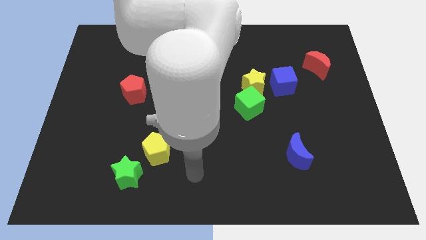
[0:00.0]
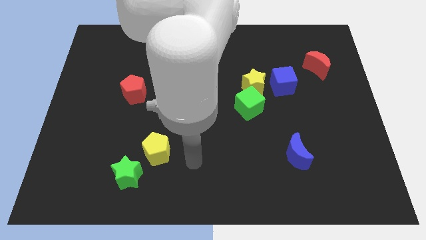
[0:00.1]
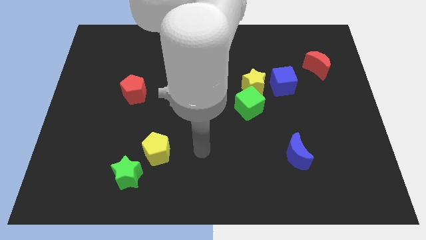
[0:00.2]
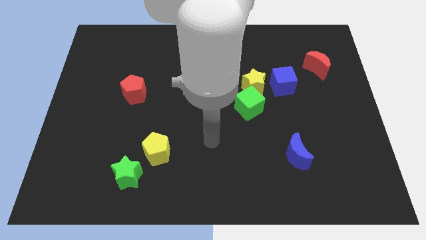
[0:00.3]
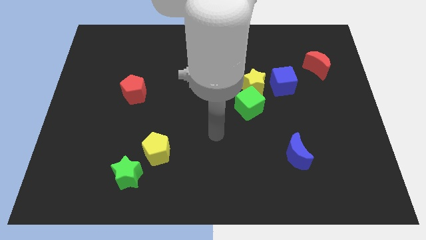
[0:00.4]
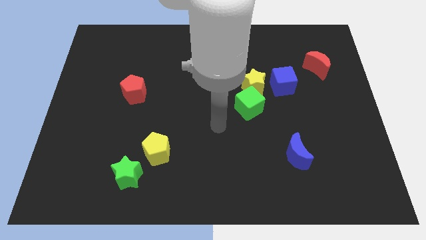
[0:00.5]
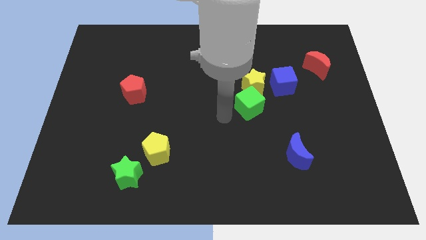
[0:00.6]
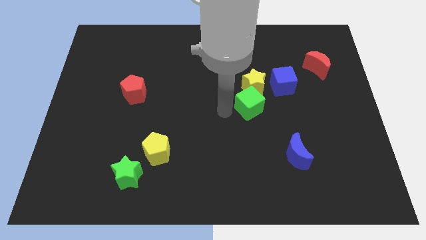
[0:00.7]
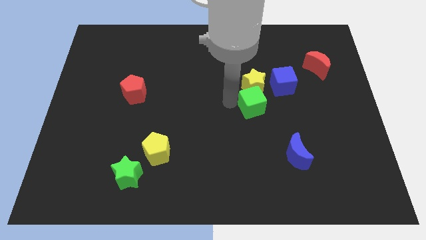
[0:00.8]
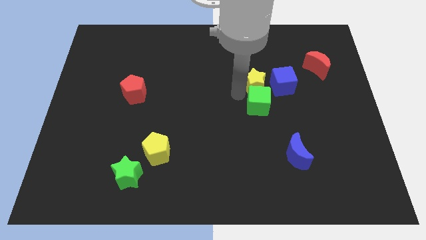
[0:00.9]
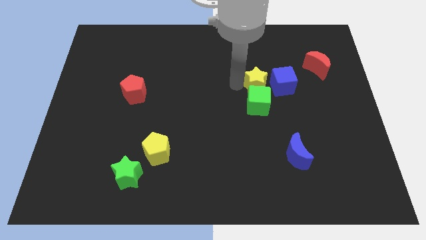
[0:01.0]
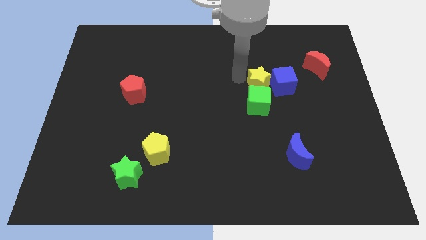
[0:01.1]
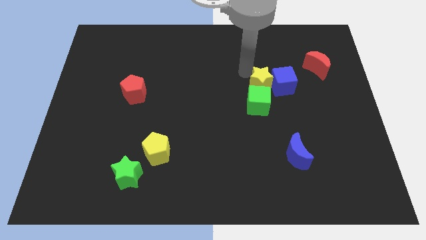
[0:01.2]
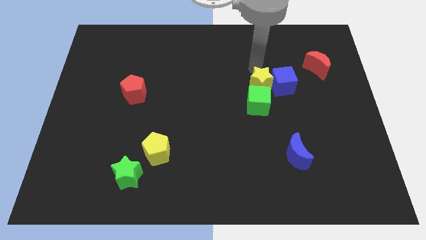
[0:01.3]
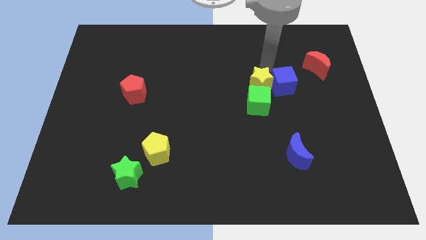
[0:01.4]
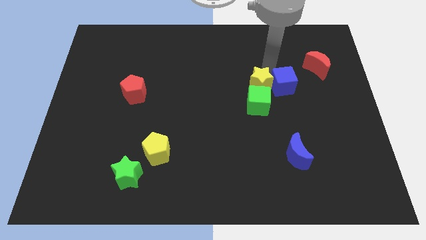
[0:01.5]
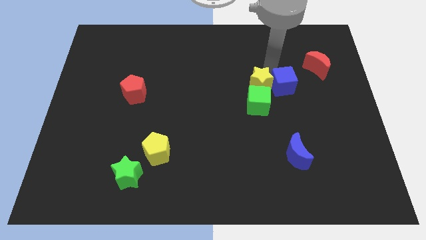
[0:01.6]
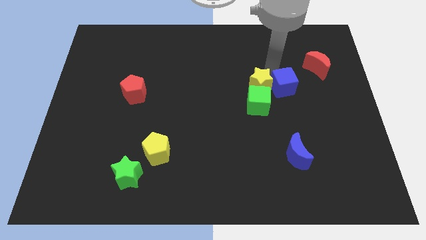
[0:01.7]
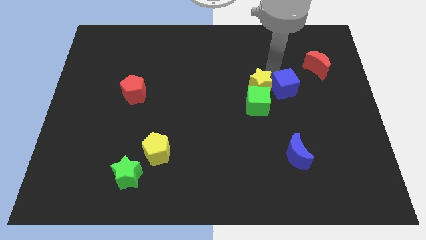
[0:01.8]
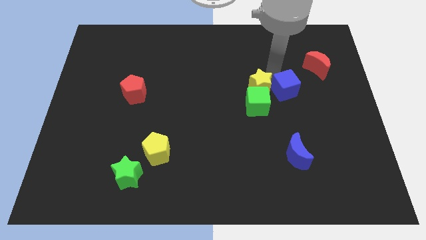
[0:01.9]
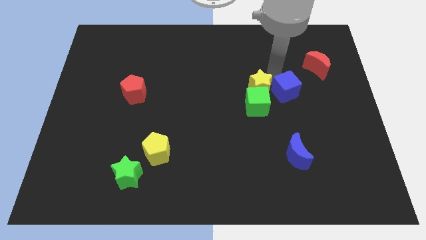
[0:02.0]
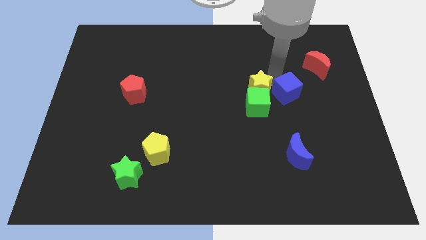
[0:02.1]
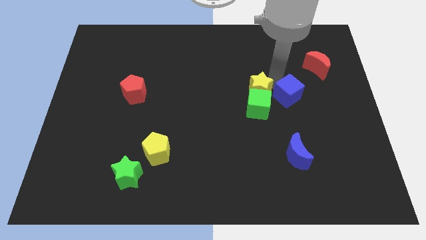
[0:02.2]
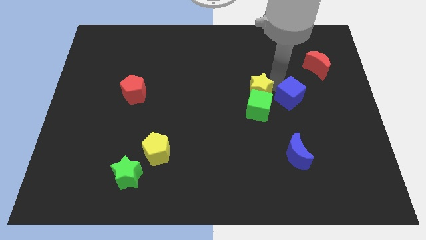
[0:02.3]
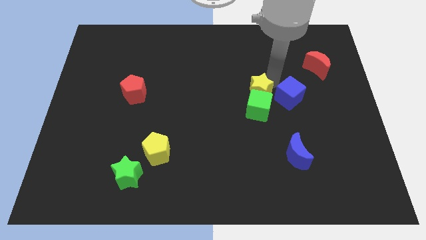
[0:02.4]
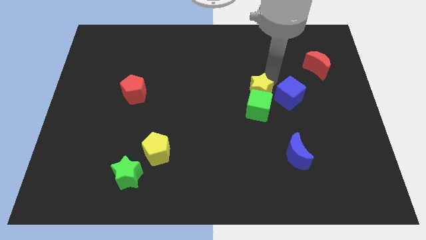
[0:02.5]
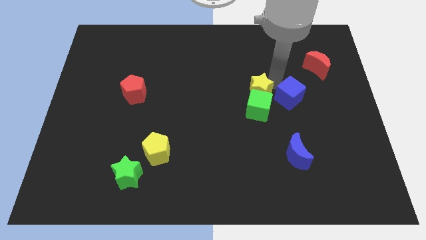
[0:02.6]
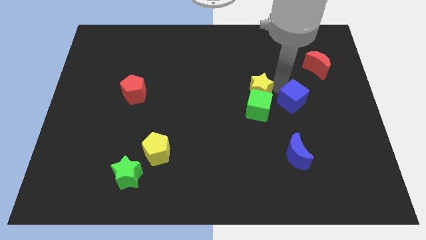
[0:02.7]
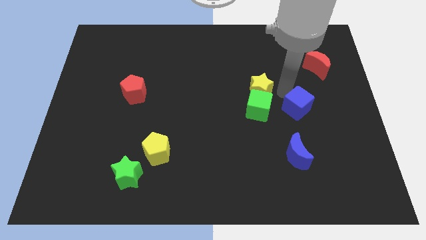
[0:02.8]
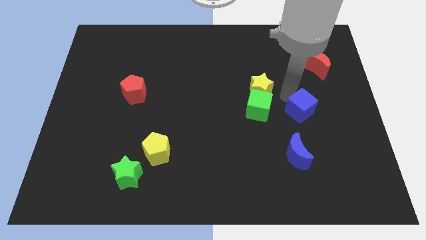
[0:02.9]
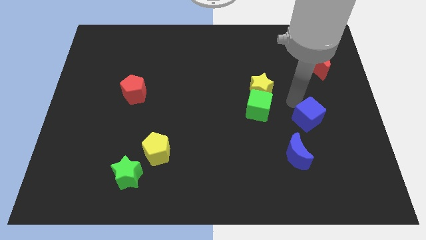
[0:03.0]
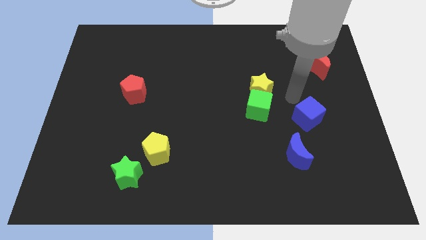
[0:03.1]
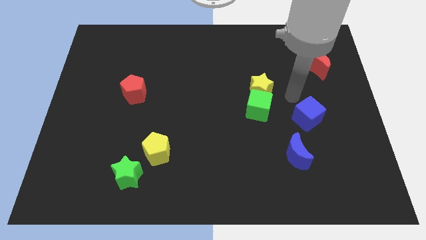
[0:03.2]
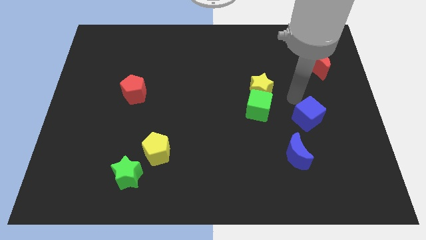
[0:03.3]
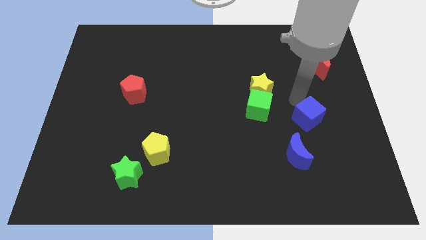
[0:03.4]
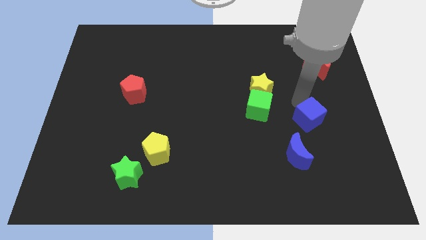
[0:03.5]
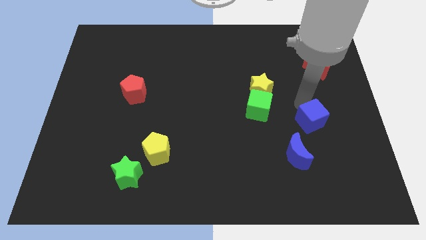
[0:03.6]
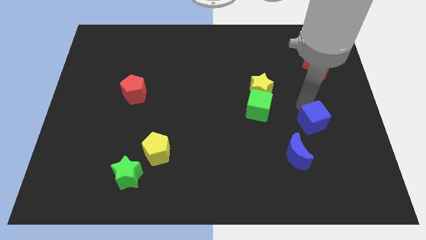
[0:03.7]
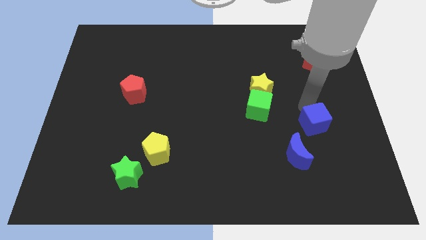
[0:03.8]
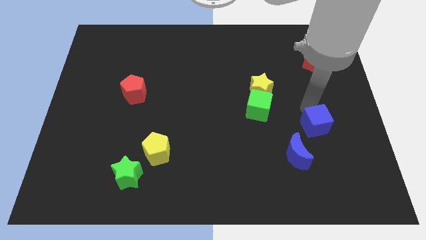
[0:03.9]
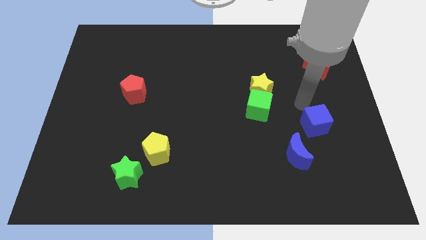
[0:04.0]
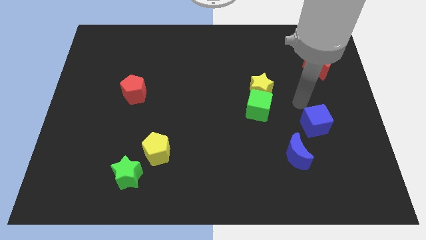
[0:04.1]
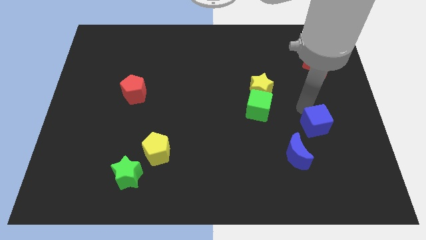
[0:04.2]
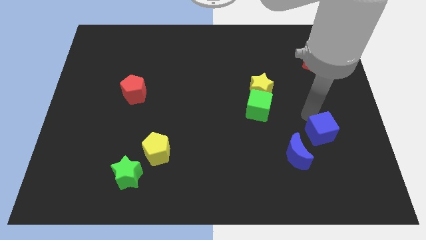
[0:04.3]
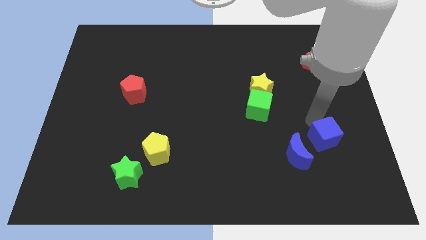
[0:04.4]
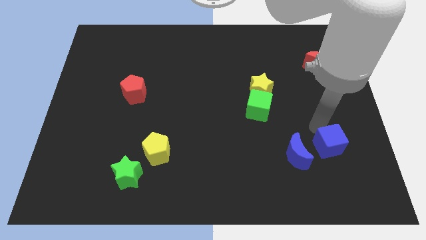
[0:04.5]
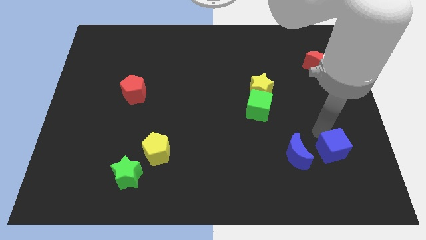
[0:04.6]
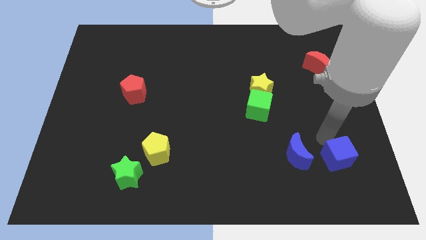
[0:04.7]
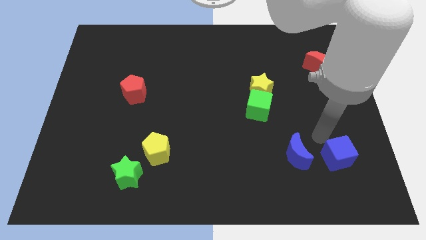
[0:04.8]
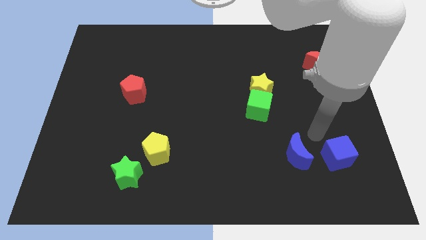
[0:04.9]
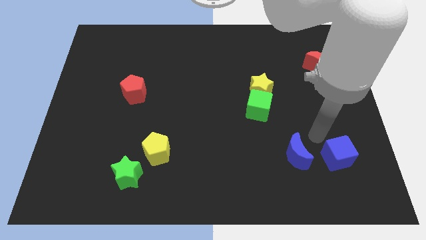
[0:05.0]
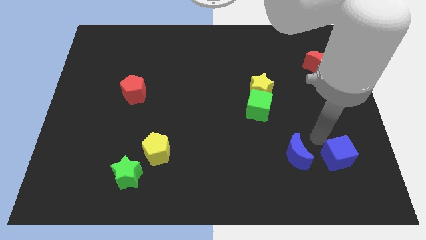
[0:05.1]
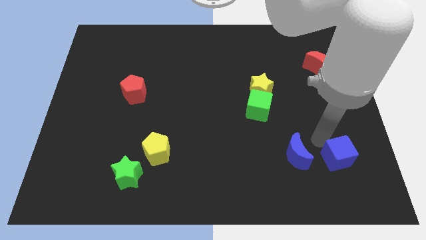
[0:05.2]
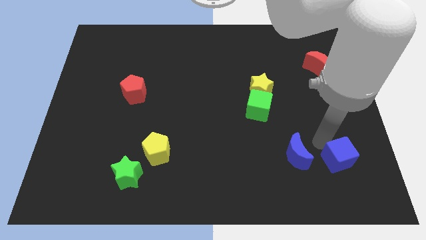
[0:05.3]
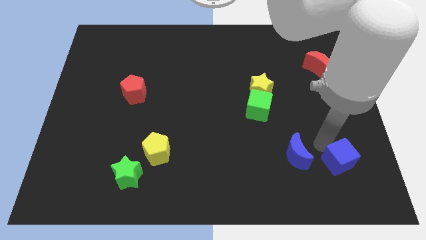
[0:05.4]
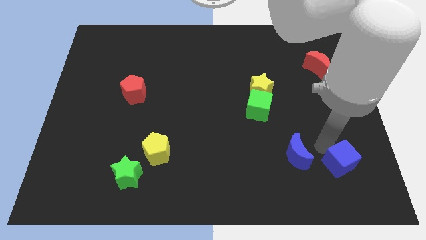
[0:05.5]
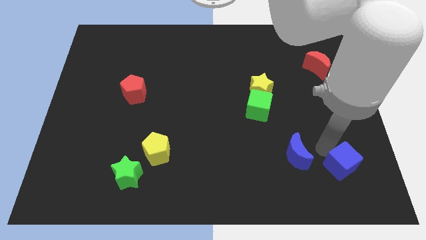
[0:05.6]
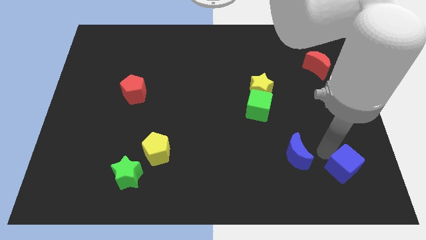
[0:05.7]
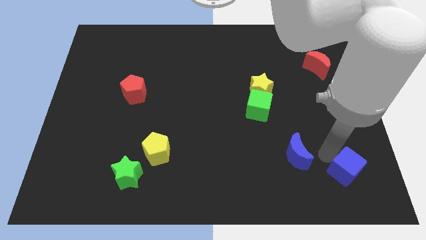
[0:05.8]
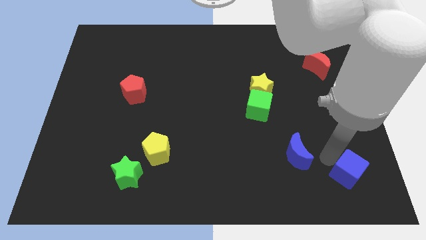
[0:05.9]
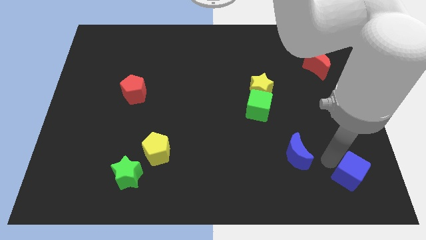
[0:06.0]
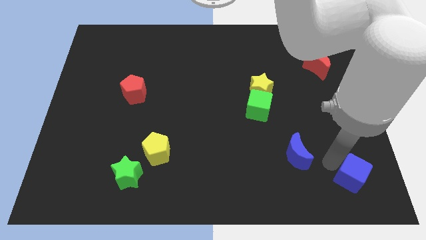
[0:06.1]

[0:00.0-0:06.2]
push the blue cube to the bottom right of the board
